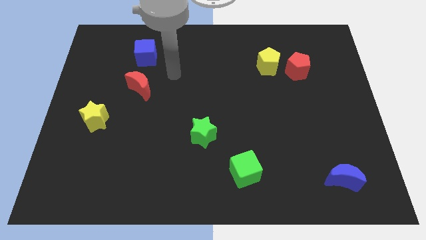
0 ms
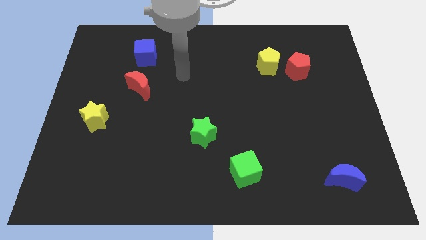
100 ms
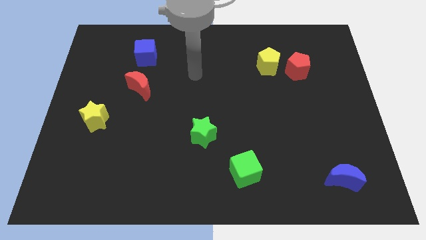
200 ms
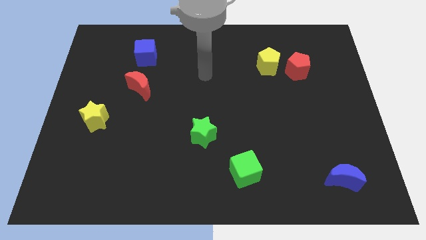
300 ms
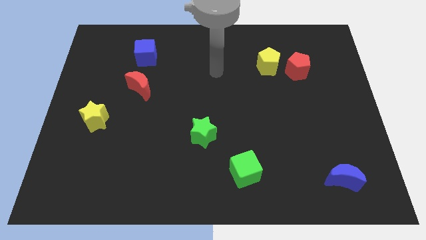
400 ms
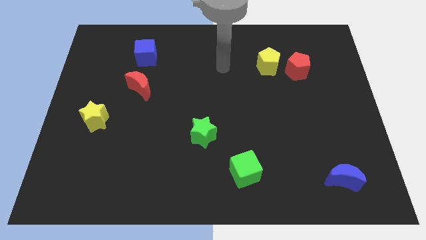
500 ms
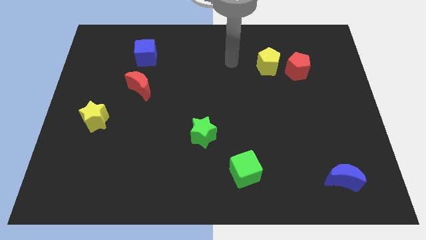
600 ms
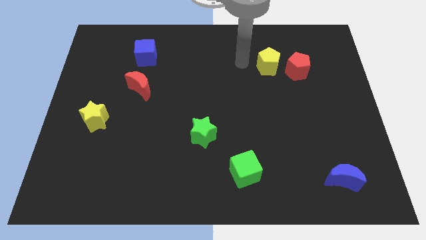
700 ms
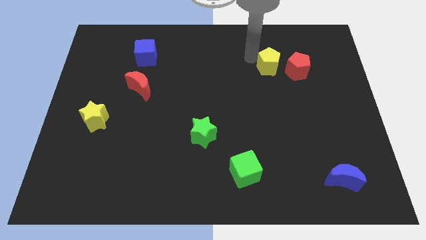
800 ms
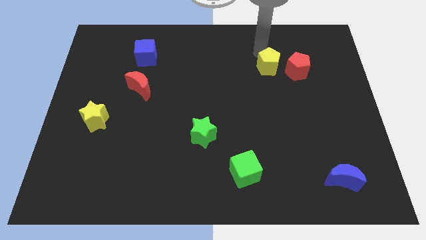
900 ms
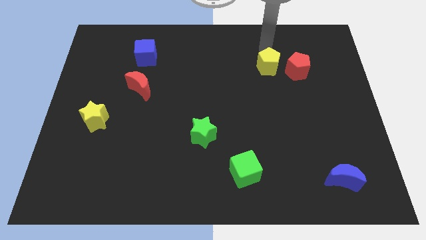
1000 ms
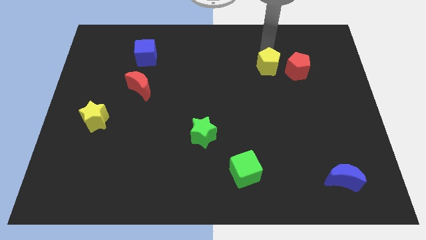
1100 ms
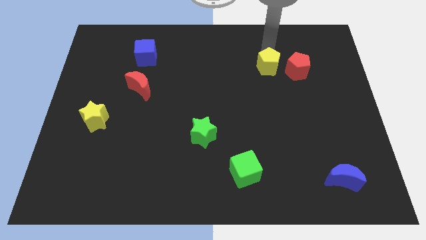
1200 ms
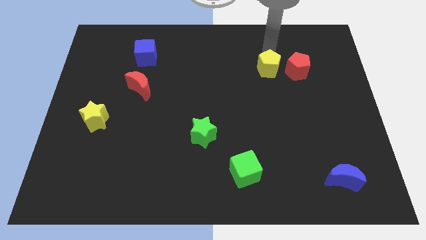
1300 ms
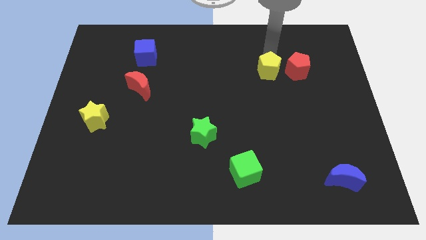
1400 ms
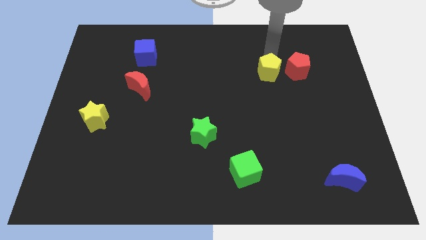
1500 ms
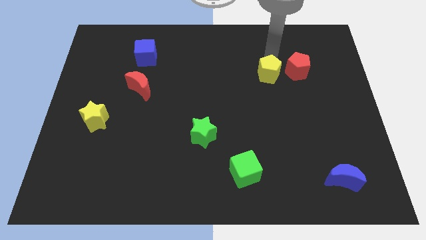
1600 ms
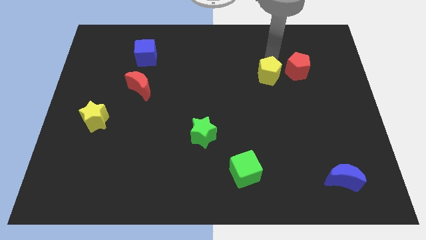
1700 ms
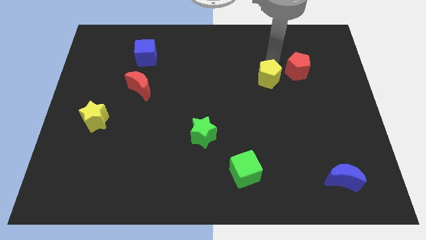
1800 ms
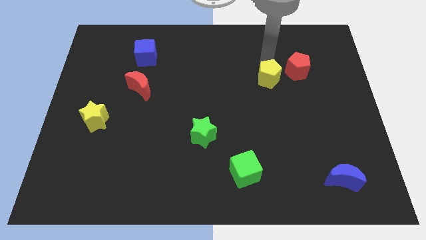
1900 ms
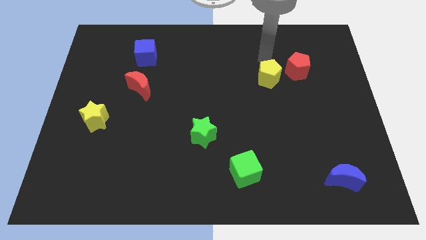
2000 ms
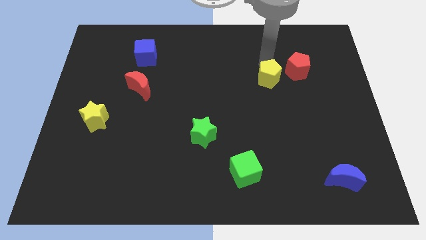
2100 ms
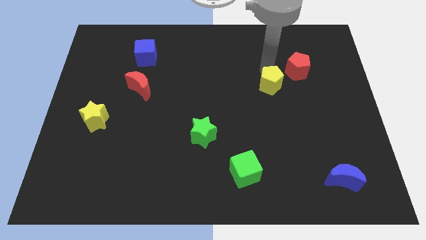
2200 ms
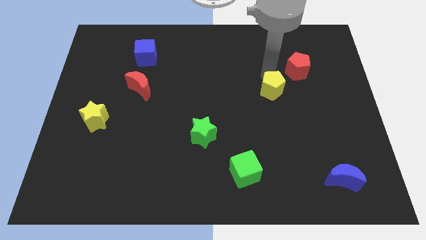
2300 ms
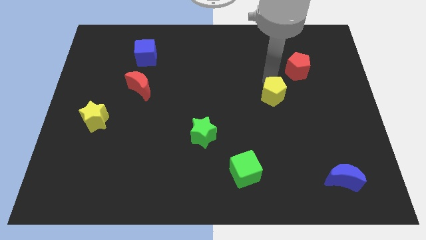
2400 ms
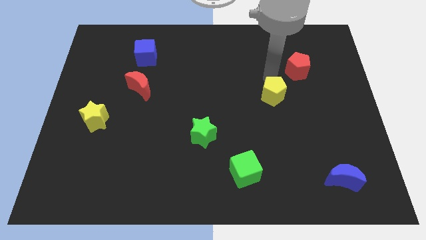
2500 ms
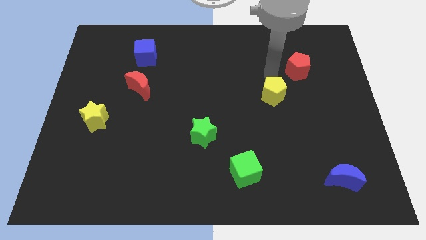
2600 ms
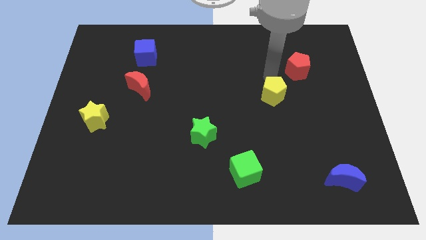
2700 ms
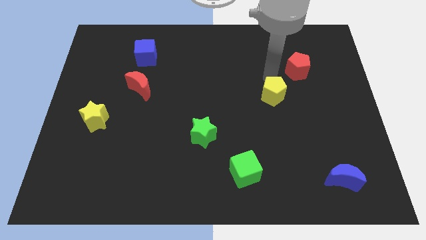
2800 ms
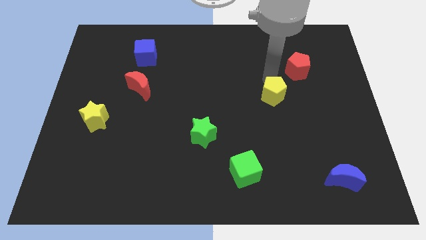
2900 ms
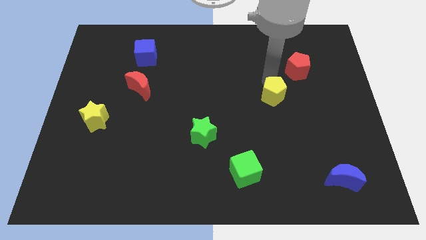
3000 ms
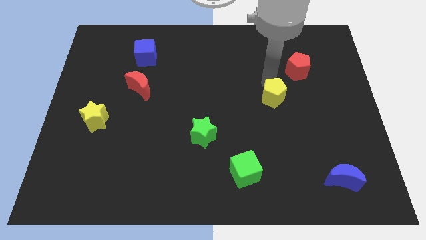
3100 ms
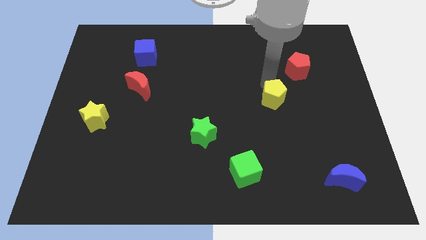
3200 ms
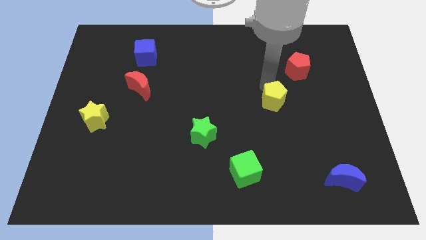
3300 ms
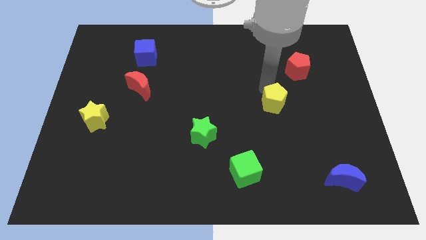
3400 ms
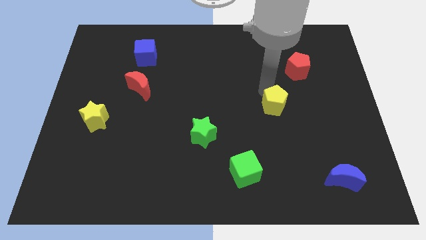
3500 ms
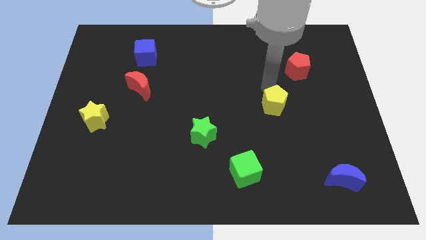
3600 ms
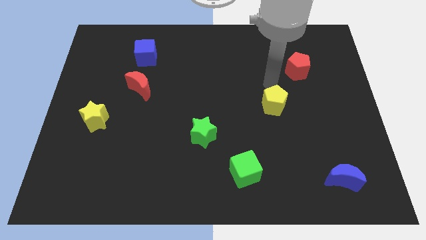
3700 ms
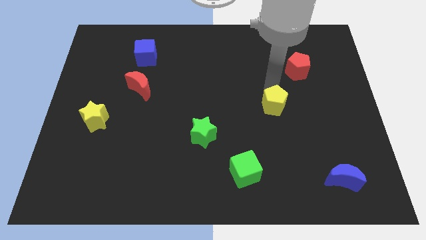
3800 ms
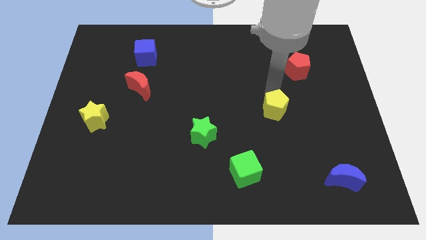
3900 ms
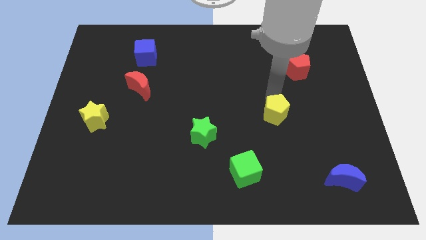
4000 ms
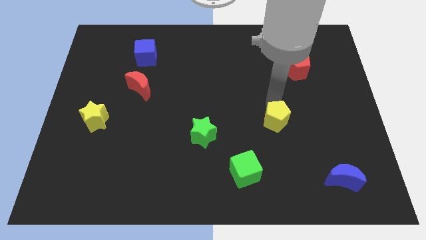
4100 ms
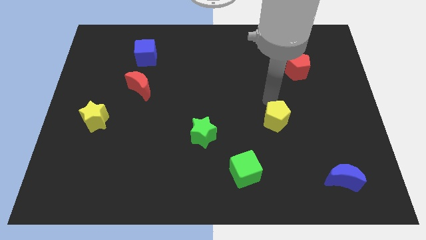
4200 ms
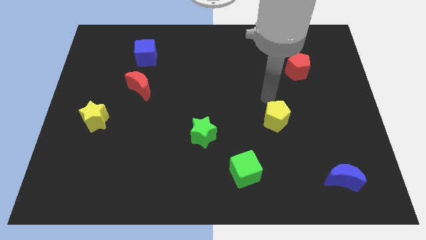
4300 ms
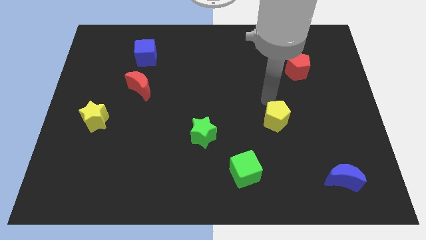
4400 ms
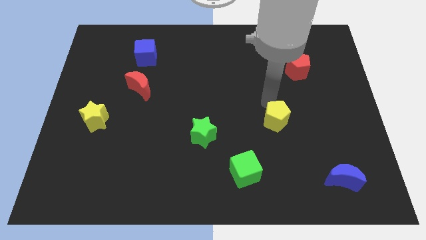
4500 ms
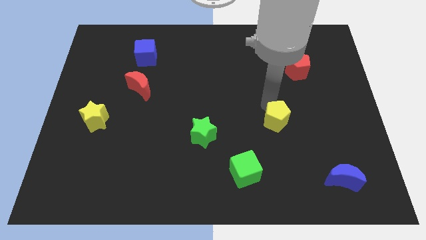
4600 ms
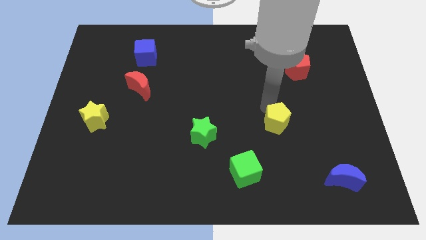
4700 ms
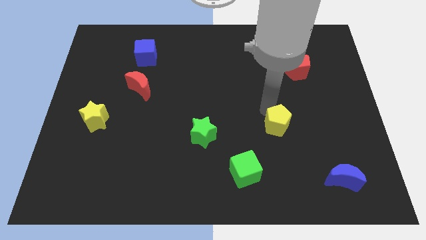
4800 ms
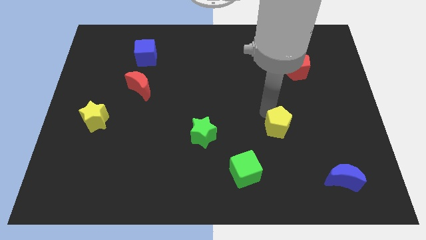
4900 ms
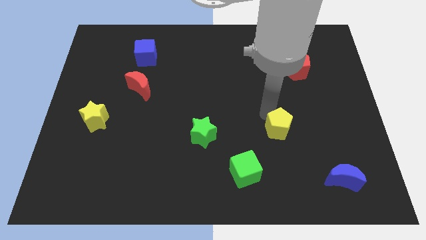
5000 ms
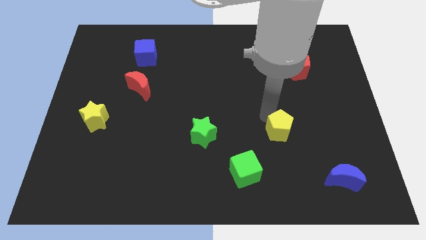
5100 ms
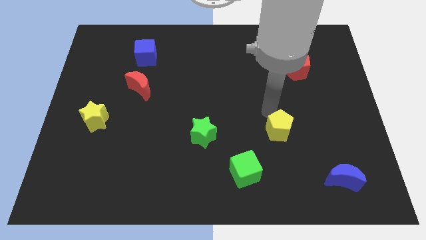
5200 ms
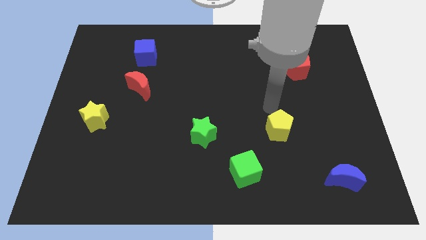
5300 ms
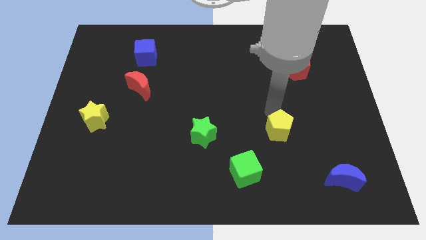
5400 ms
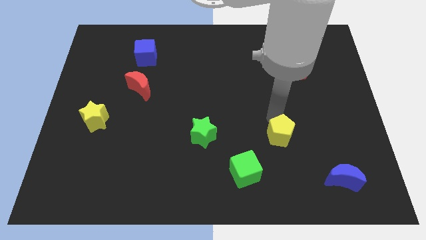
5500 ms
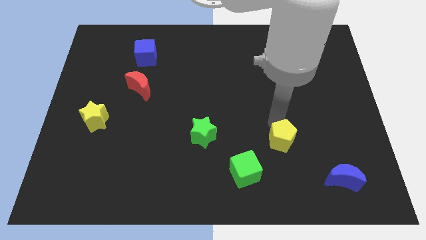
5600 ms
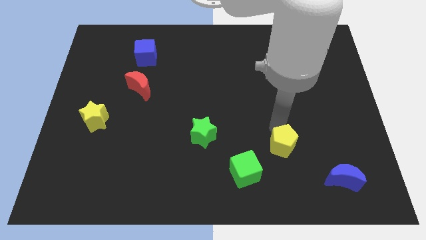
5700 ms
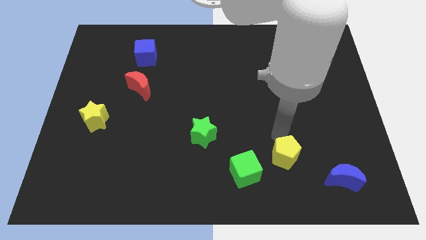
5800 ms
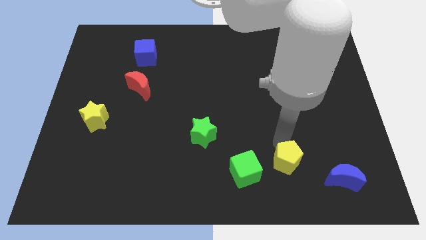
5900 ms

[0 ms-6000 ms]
slide the yellow pentagon to the left of the blue moon

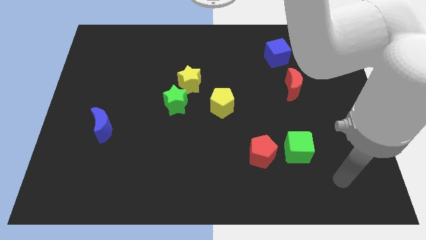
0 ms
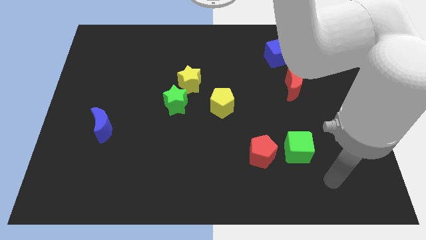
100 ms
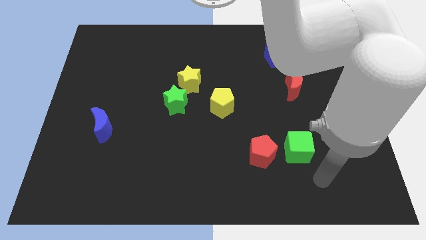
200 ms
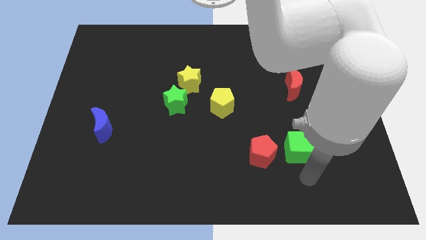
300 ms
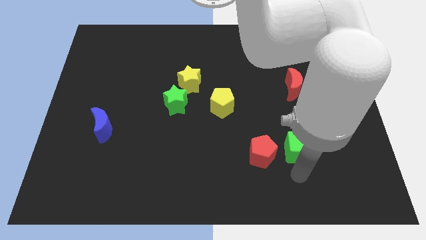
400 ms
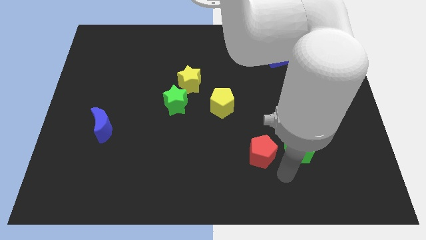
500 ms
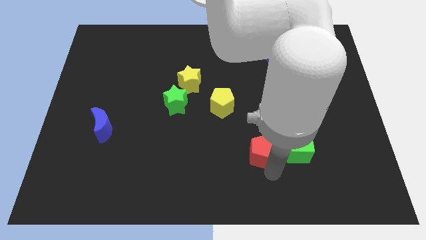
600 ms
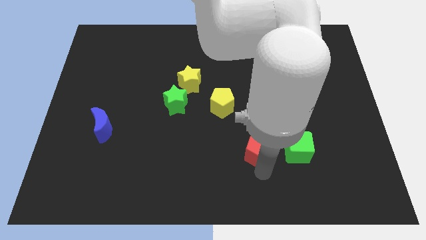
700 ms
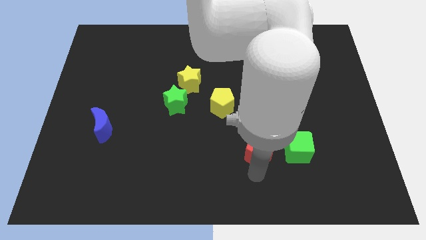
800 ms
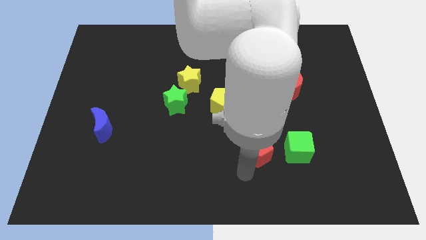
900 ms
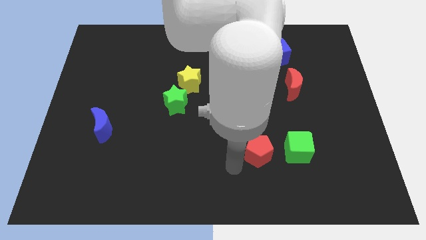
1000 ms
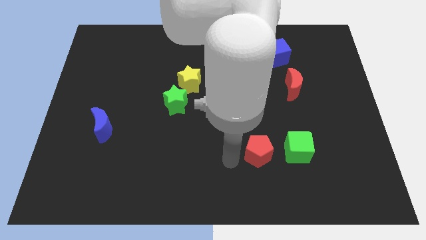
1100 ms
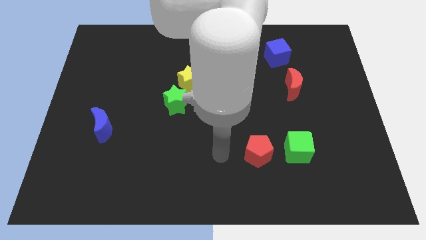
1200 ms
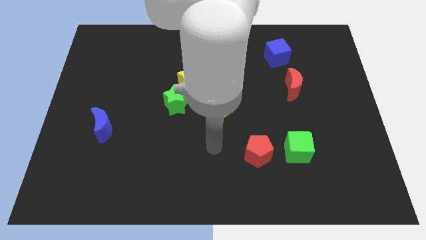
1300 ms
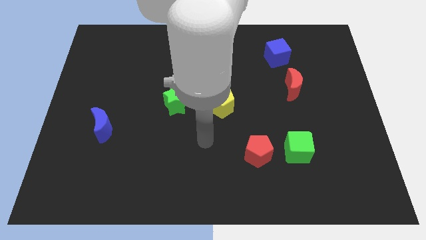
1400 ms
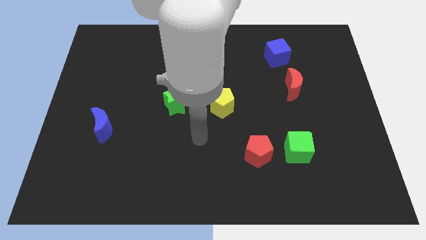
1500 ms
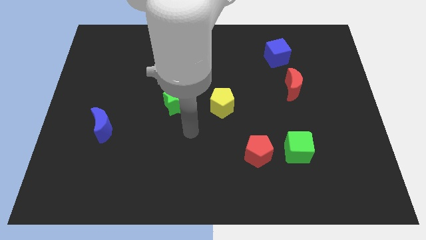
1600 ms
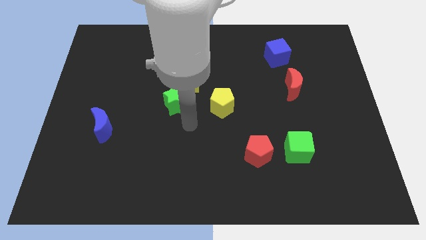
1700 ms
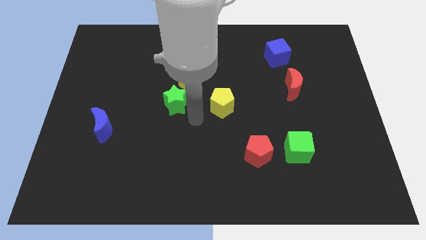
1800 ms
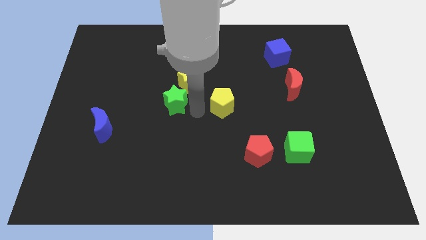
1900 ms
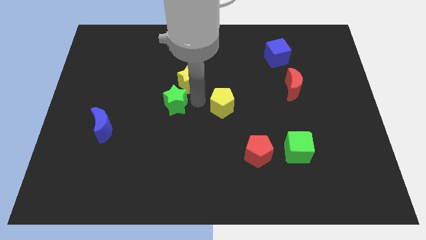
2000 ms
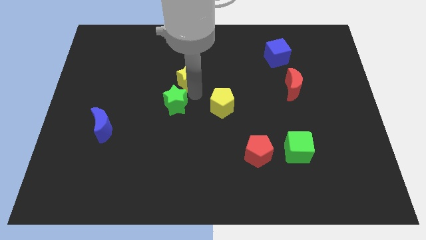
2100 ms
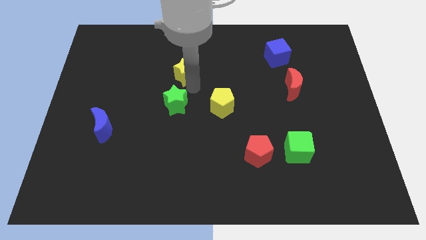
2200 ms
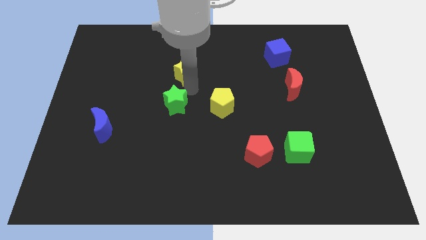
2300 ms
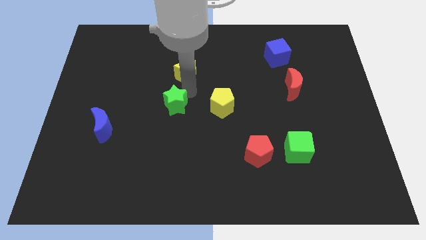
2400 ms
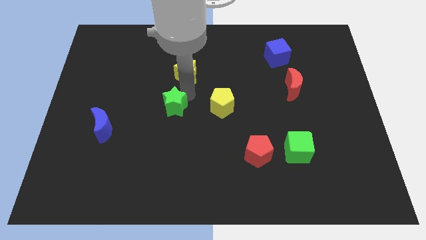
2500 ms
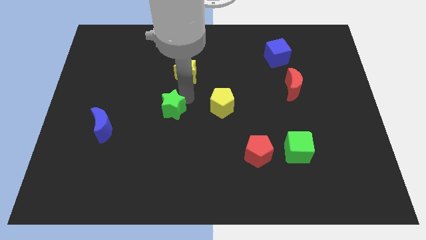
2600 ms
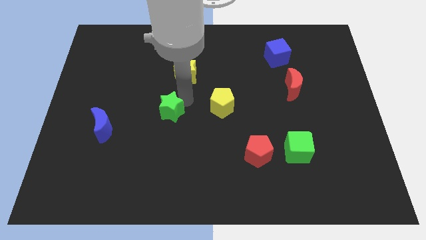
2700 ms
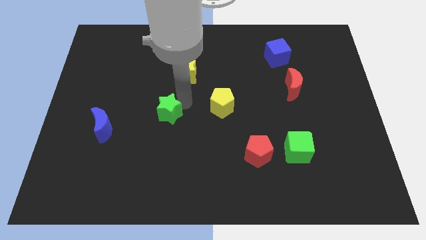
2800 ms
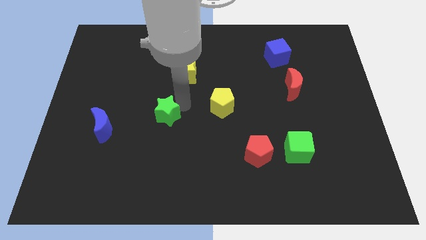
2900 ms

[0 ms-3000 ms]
push the green star to the right side of the blue moon
